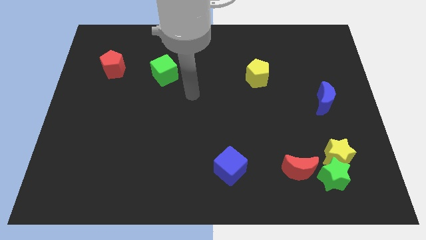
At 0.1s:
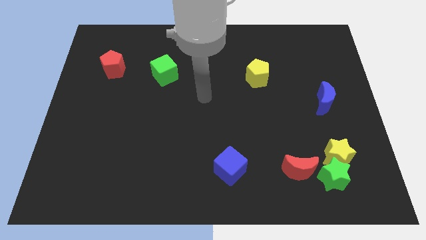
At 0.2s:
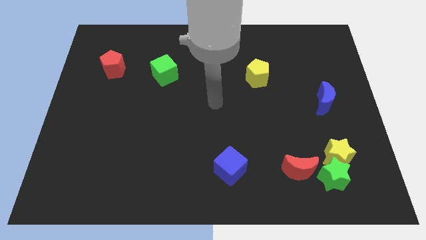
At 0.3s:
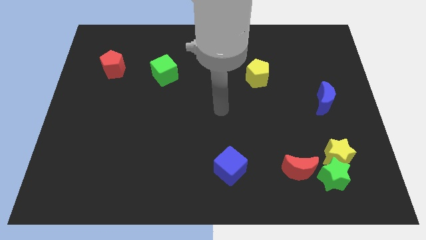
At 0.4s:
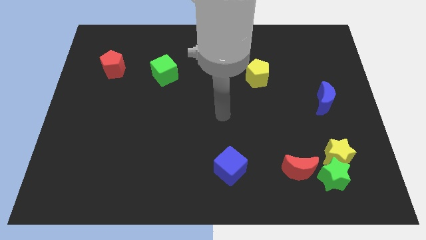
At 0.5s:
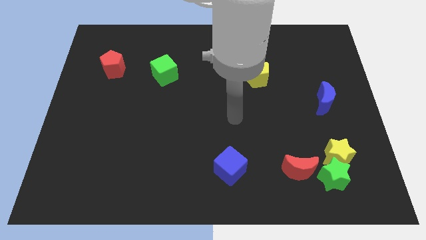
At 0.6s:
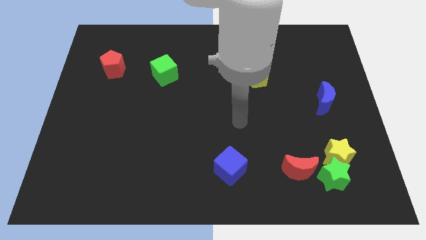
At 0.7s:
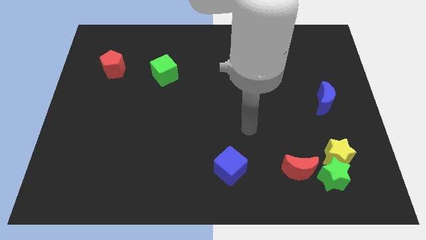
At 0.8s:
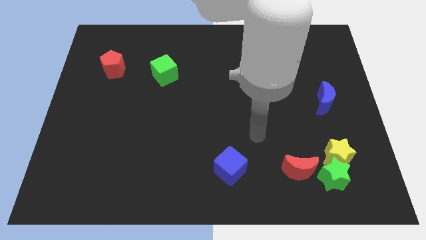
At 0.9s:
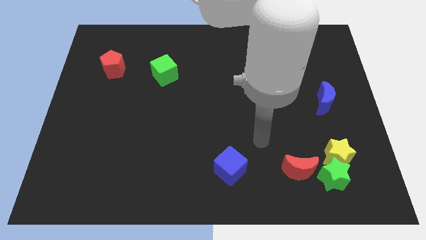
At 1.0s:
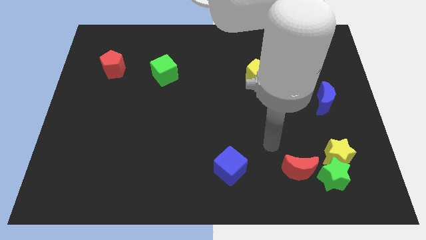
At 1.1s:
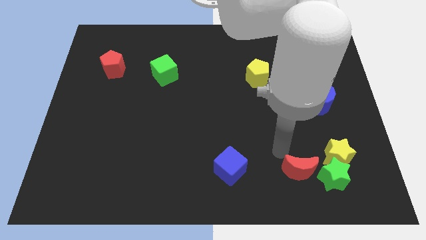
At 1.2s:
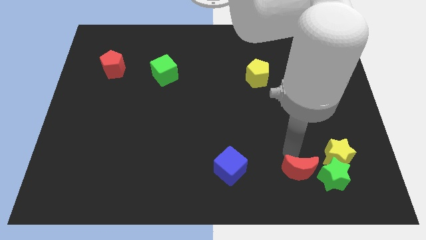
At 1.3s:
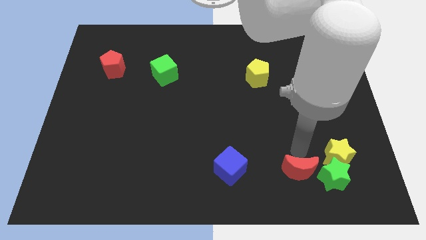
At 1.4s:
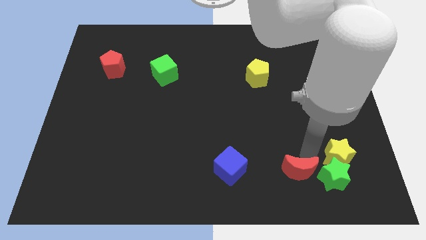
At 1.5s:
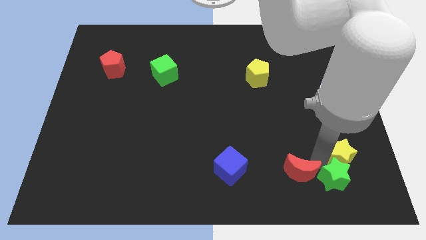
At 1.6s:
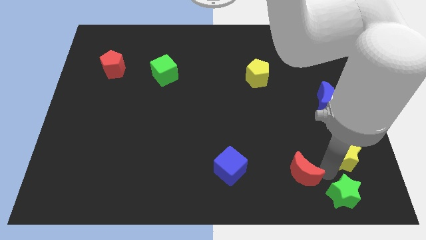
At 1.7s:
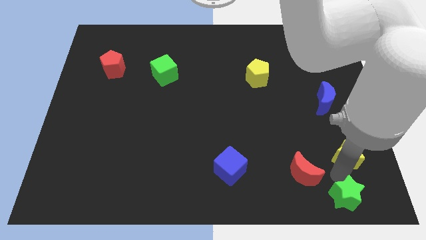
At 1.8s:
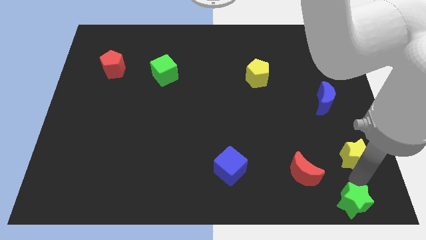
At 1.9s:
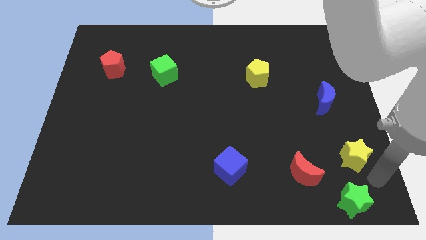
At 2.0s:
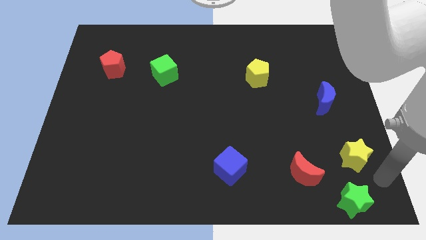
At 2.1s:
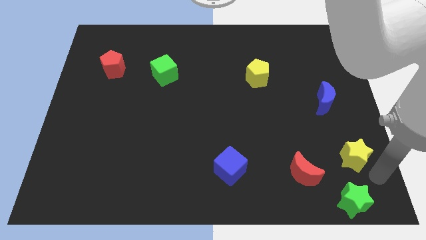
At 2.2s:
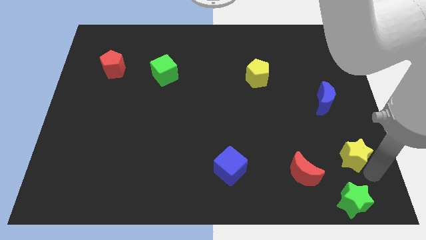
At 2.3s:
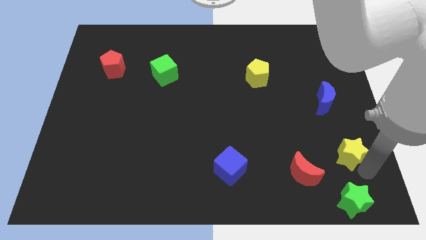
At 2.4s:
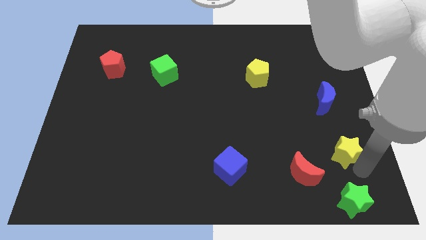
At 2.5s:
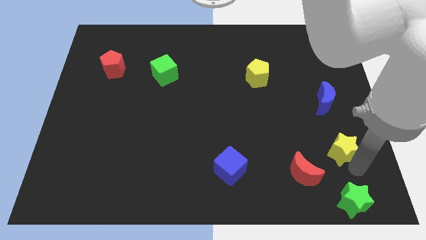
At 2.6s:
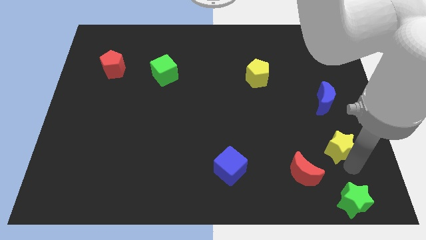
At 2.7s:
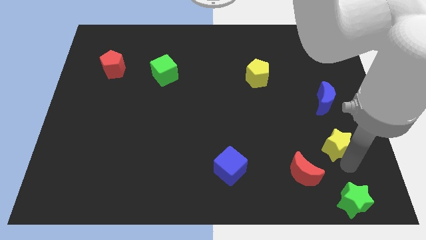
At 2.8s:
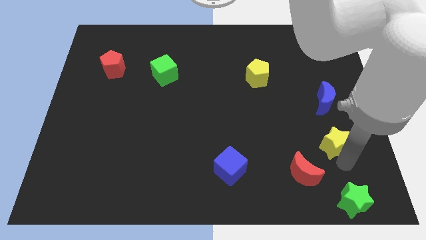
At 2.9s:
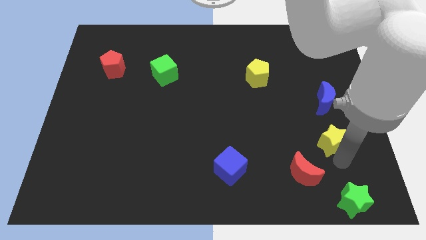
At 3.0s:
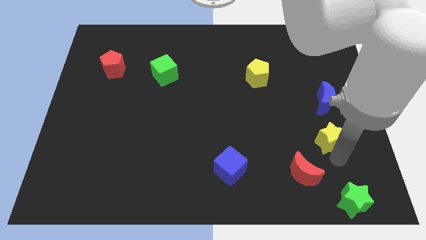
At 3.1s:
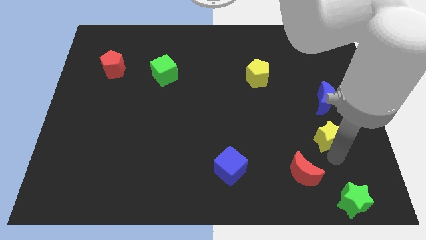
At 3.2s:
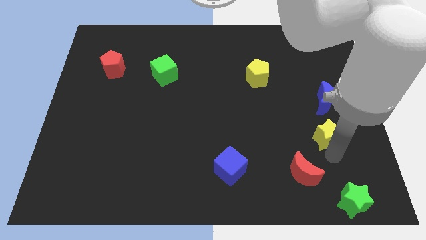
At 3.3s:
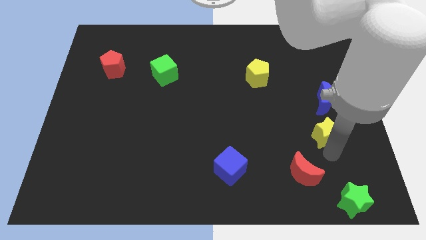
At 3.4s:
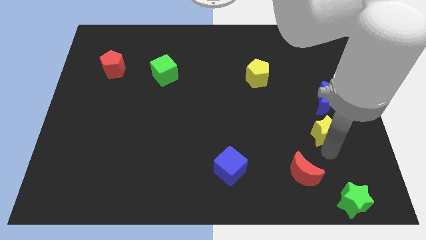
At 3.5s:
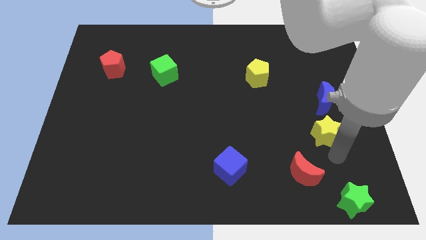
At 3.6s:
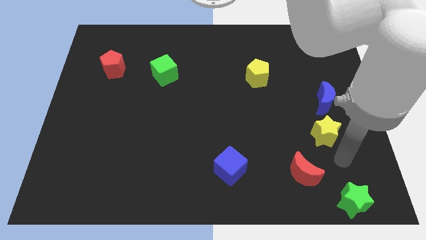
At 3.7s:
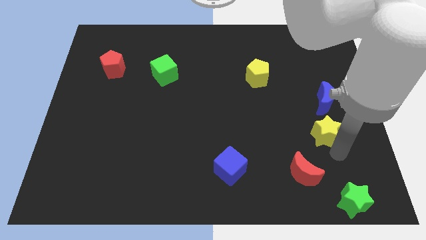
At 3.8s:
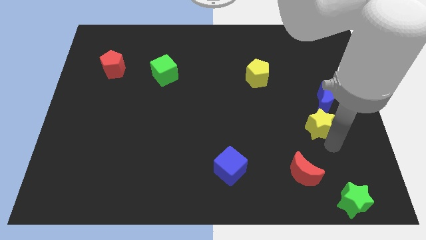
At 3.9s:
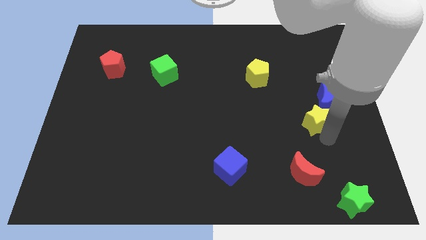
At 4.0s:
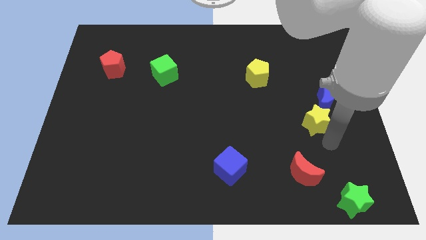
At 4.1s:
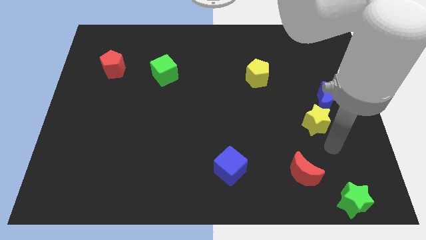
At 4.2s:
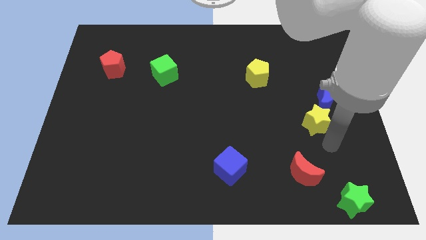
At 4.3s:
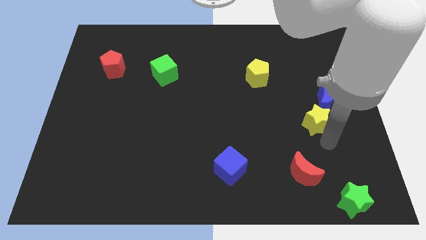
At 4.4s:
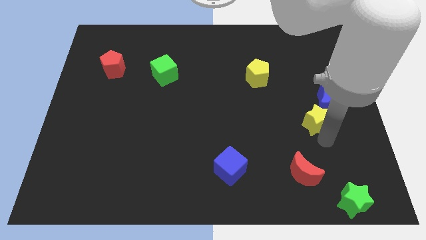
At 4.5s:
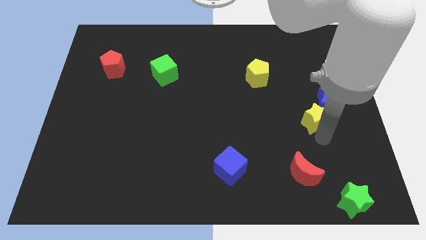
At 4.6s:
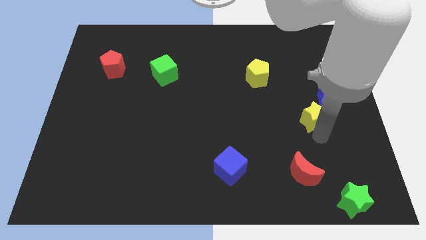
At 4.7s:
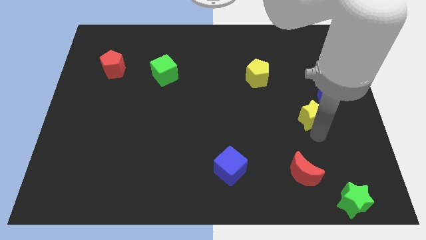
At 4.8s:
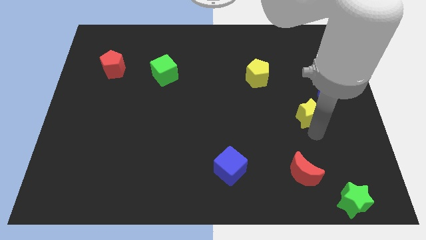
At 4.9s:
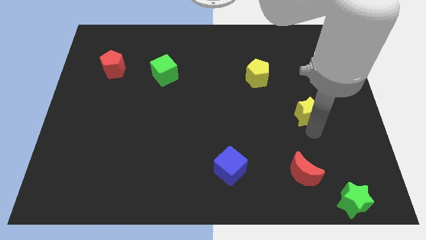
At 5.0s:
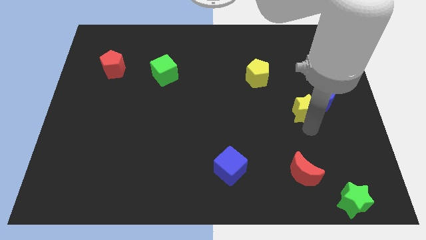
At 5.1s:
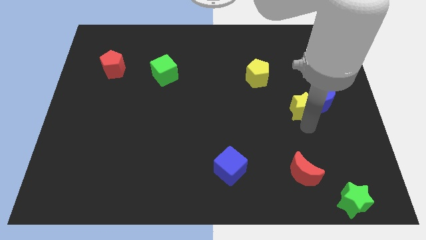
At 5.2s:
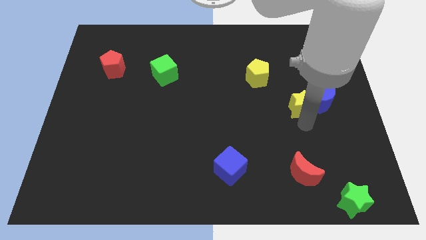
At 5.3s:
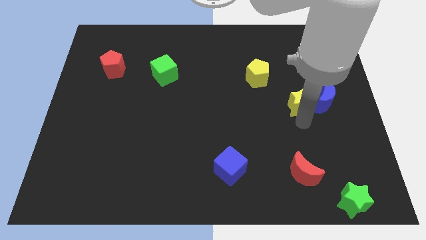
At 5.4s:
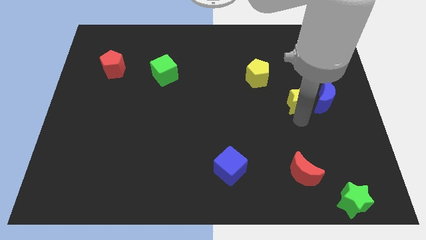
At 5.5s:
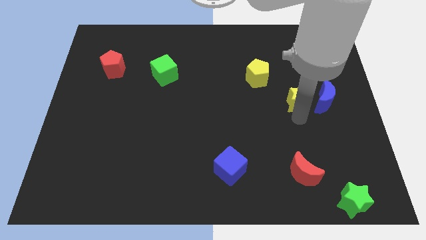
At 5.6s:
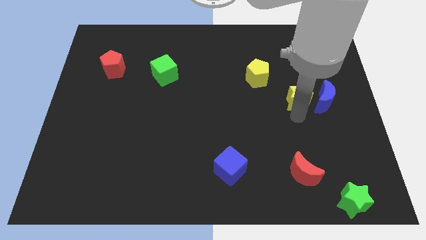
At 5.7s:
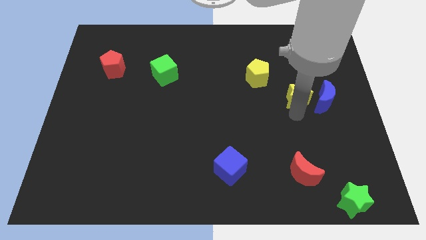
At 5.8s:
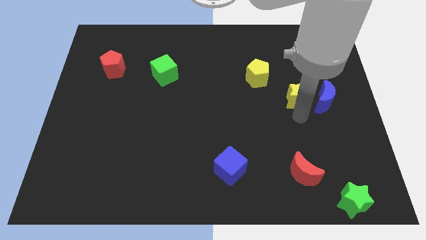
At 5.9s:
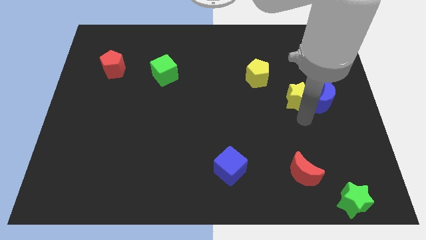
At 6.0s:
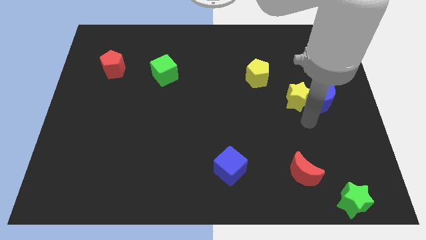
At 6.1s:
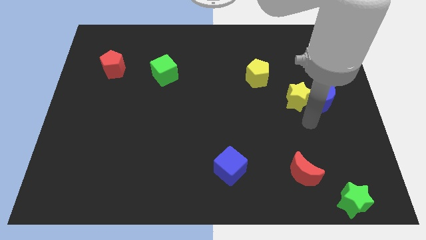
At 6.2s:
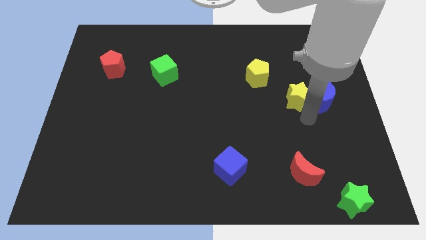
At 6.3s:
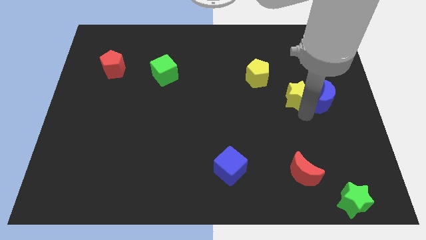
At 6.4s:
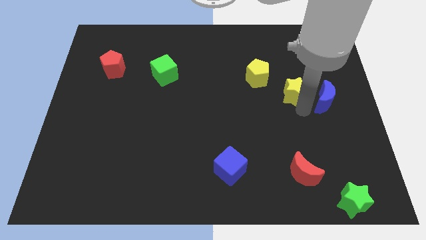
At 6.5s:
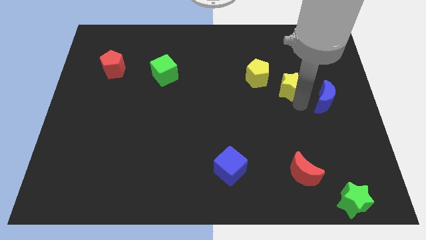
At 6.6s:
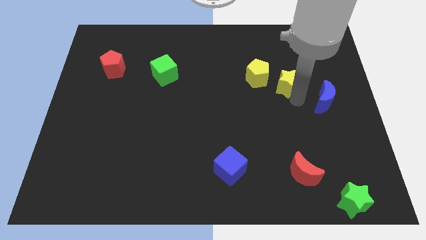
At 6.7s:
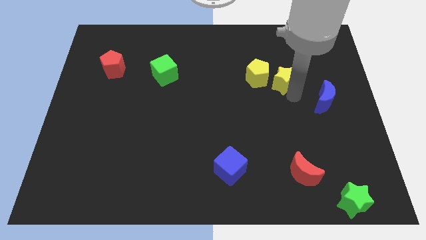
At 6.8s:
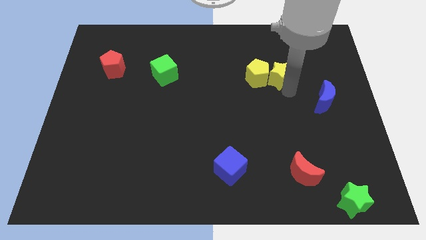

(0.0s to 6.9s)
move the yellow star to the top right of the yellow pentagon

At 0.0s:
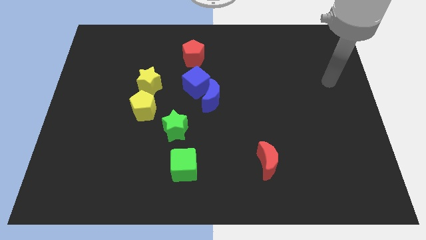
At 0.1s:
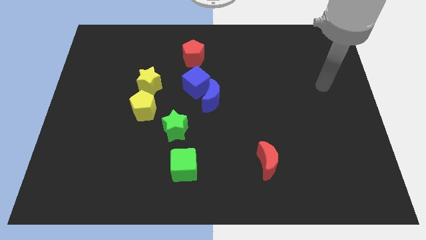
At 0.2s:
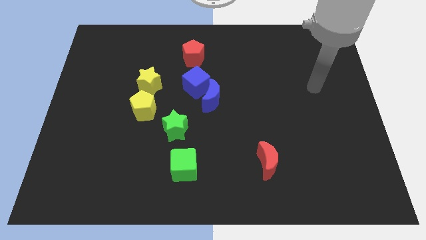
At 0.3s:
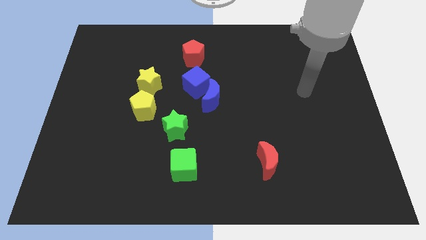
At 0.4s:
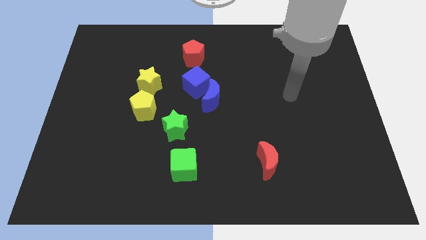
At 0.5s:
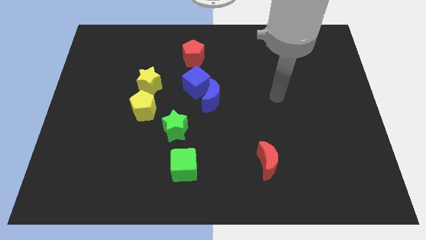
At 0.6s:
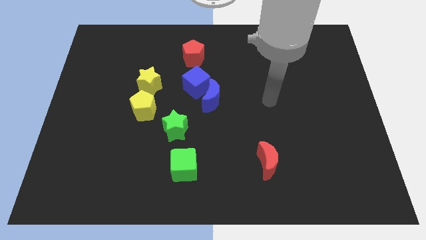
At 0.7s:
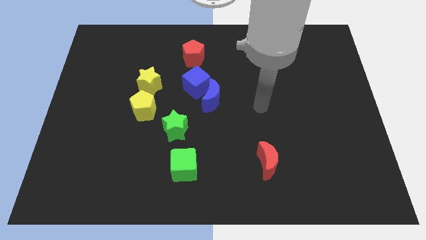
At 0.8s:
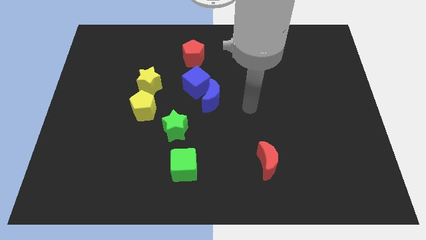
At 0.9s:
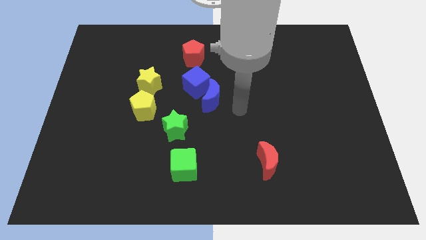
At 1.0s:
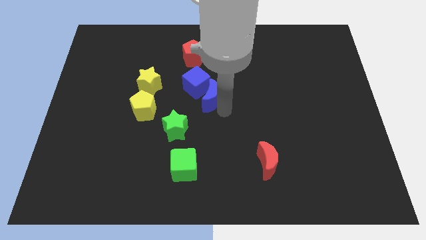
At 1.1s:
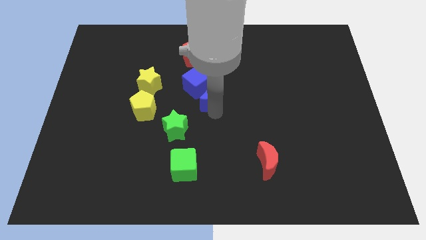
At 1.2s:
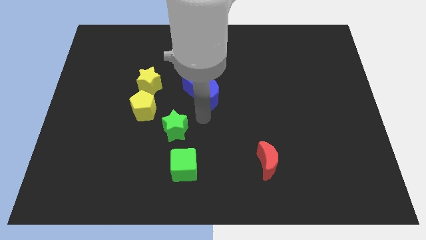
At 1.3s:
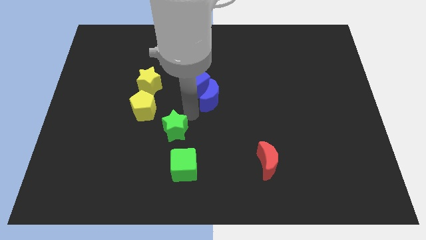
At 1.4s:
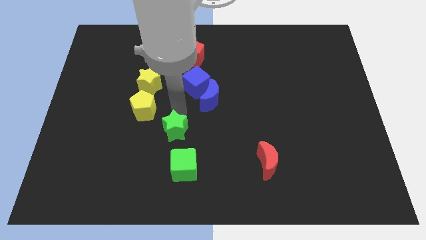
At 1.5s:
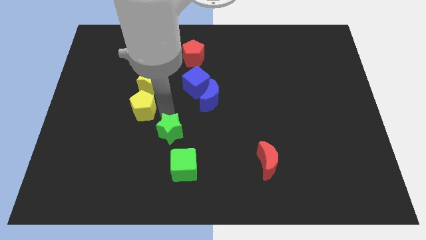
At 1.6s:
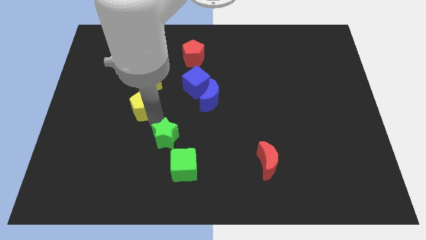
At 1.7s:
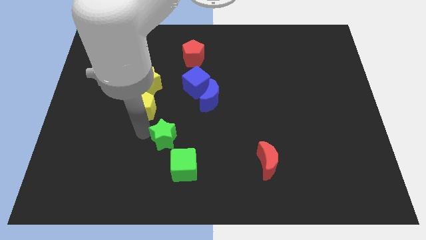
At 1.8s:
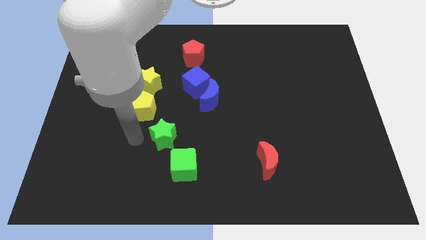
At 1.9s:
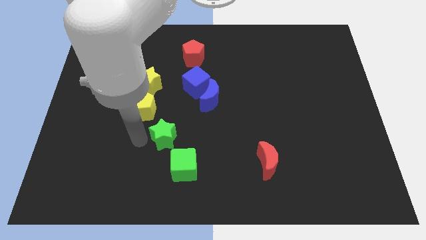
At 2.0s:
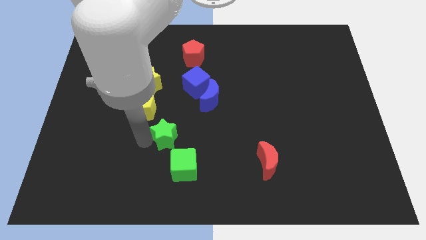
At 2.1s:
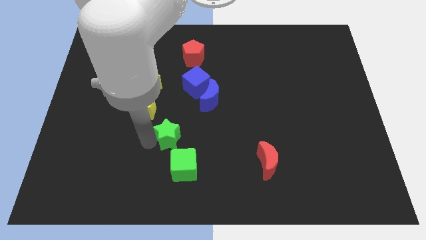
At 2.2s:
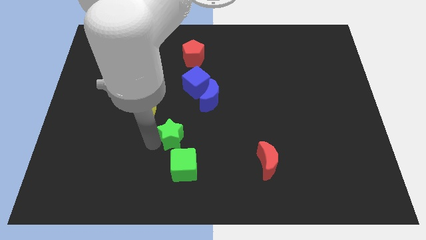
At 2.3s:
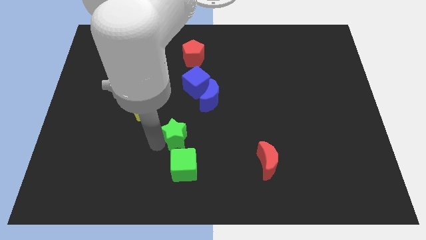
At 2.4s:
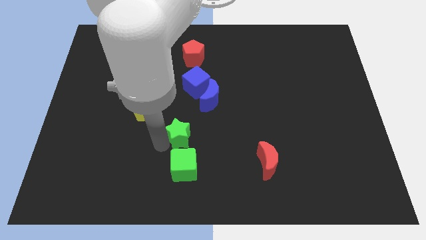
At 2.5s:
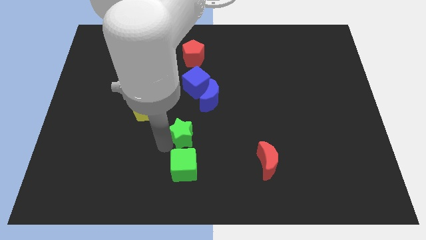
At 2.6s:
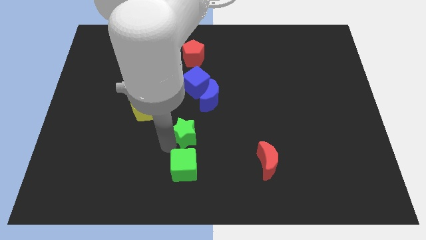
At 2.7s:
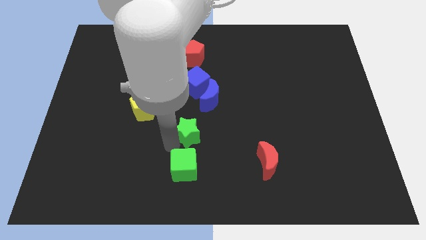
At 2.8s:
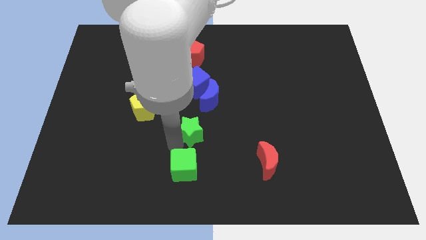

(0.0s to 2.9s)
put the green star to the bottom side of the blue moon
